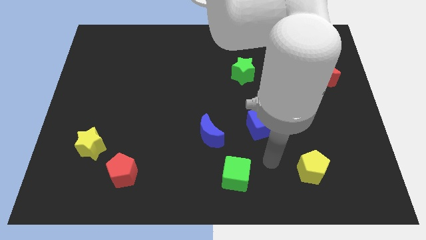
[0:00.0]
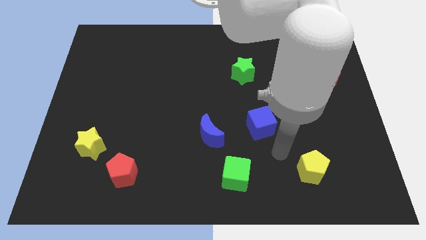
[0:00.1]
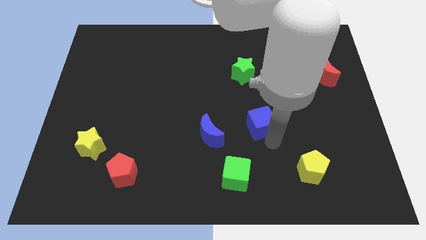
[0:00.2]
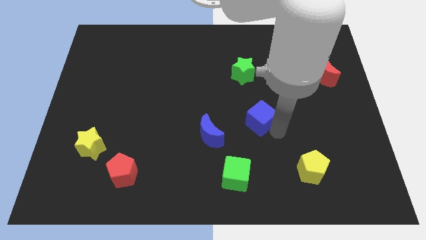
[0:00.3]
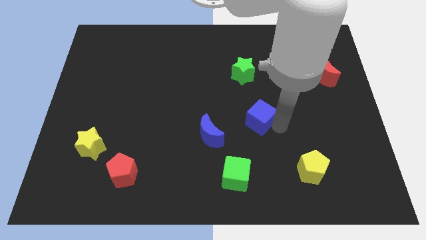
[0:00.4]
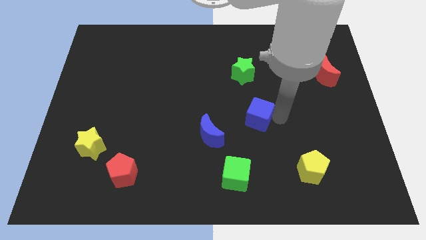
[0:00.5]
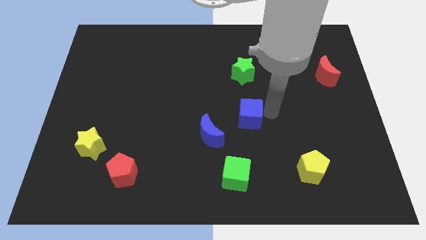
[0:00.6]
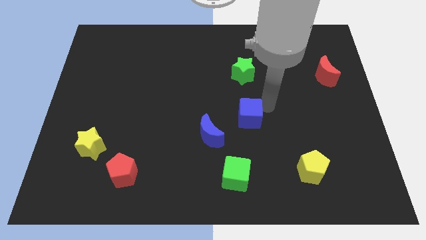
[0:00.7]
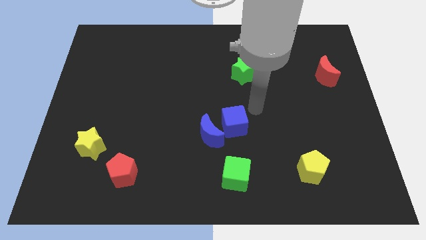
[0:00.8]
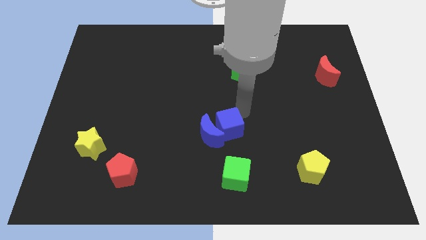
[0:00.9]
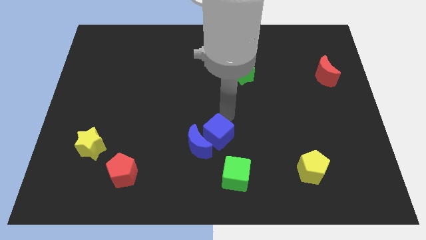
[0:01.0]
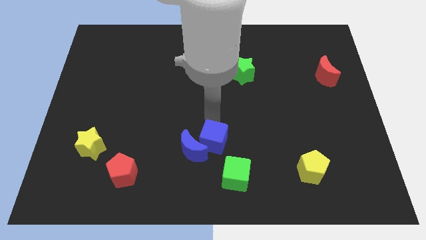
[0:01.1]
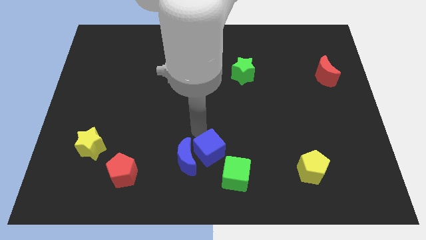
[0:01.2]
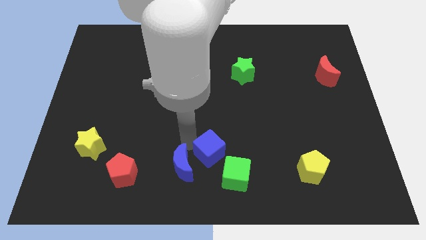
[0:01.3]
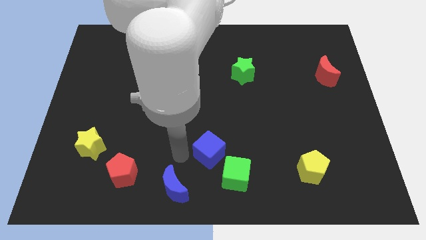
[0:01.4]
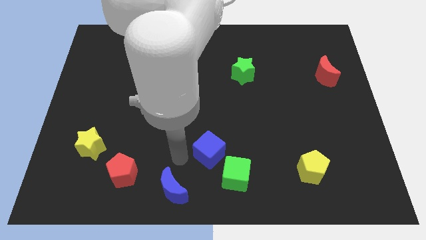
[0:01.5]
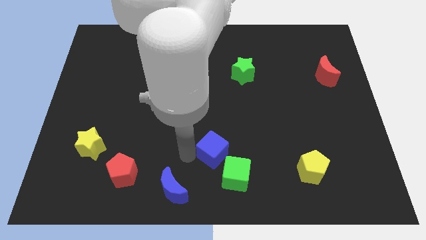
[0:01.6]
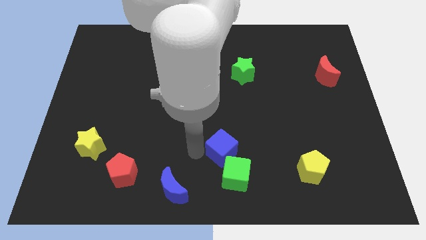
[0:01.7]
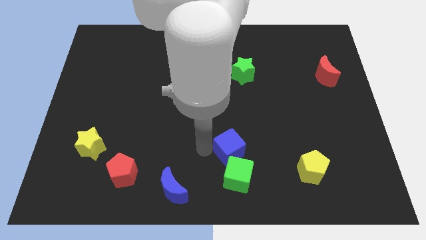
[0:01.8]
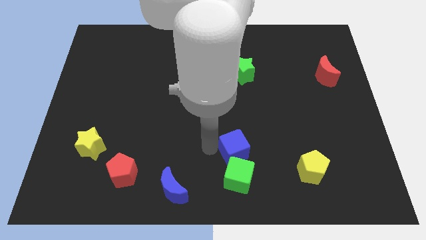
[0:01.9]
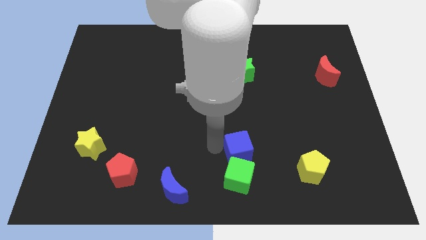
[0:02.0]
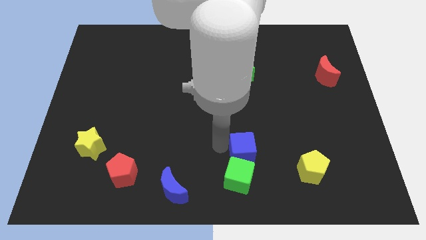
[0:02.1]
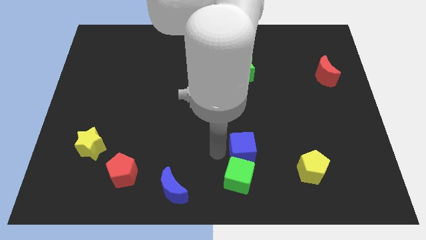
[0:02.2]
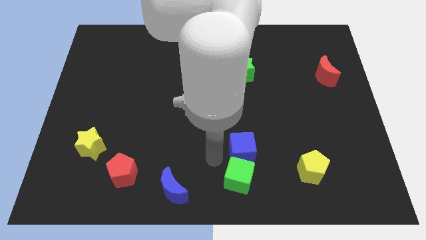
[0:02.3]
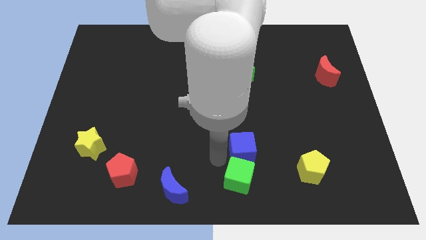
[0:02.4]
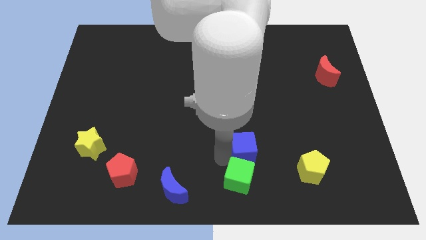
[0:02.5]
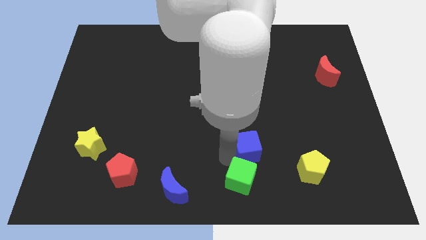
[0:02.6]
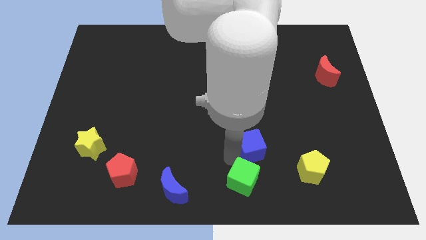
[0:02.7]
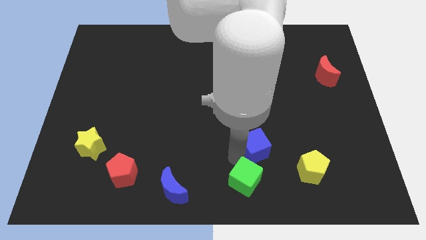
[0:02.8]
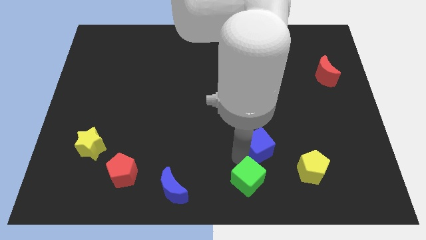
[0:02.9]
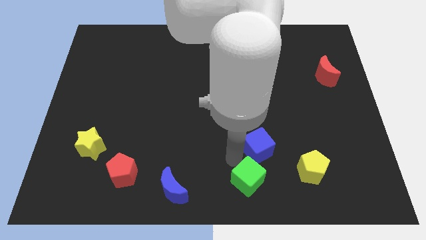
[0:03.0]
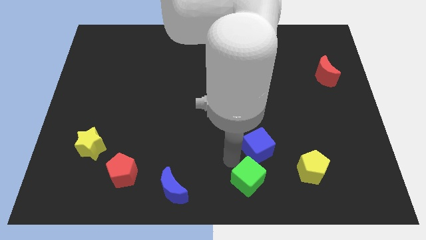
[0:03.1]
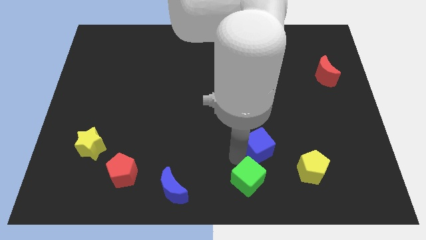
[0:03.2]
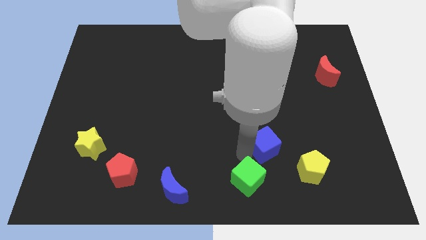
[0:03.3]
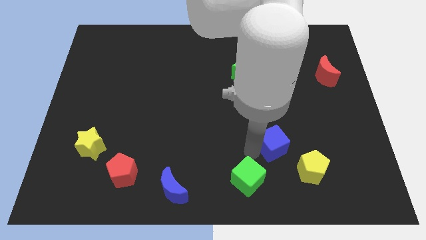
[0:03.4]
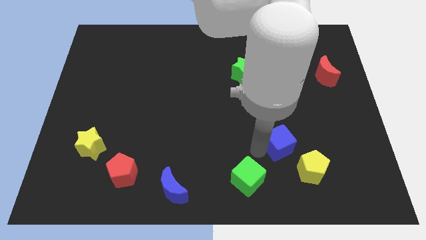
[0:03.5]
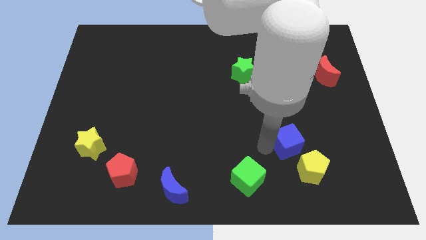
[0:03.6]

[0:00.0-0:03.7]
slide the blue cube somewhat downwards and right diagonally

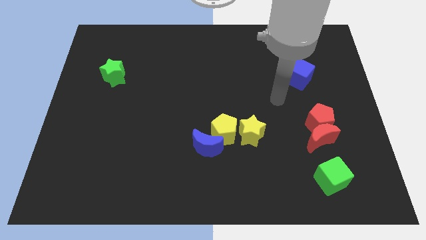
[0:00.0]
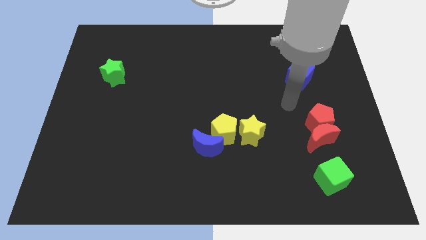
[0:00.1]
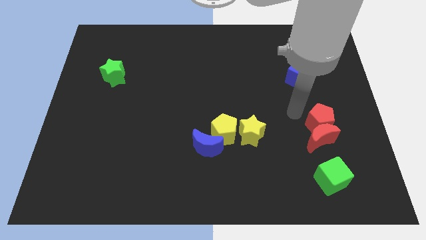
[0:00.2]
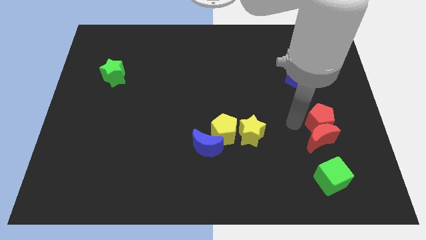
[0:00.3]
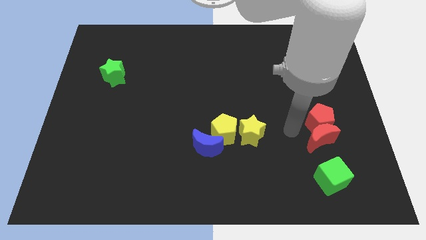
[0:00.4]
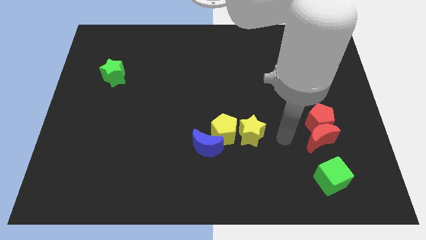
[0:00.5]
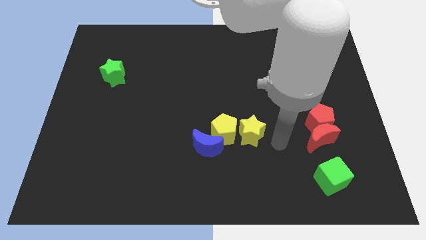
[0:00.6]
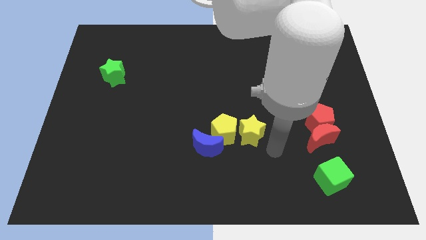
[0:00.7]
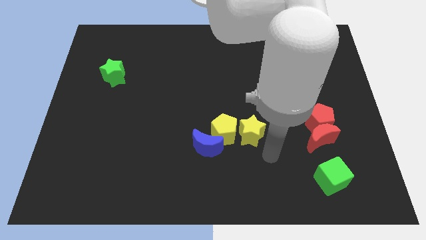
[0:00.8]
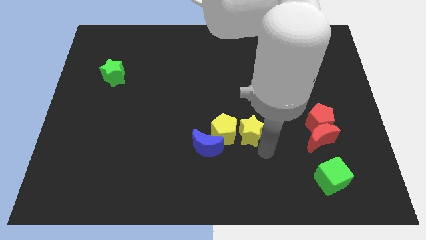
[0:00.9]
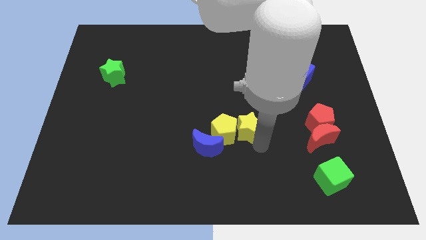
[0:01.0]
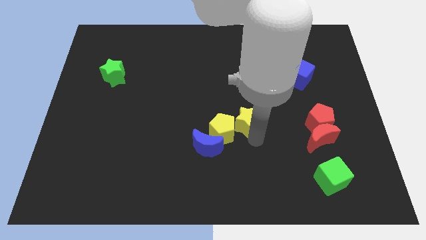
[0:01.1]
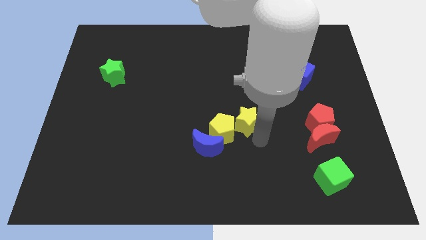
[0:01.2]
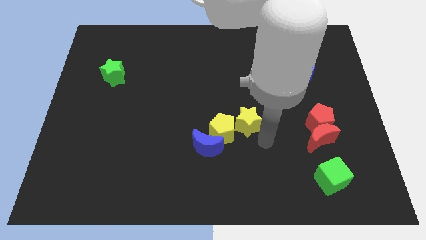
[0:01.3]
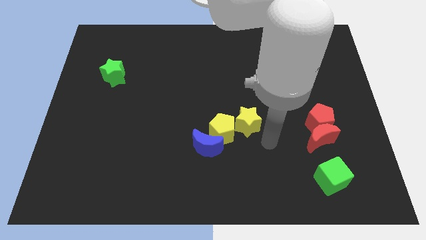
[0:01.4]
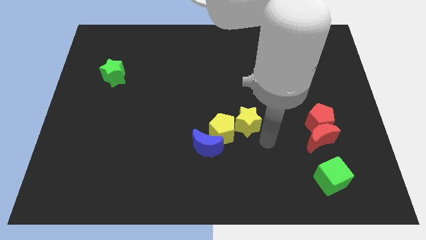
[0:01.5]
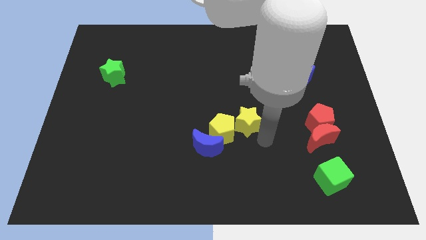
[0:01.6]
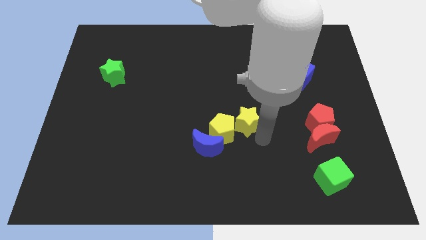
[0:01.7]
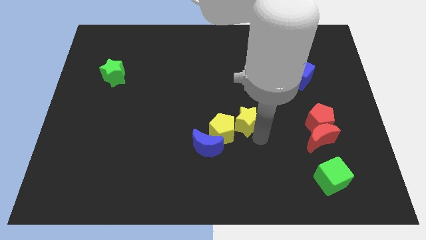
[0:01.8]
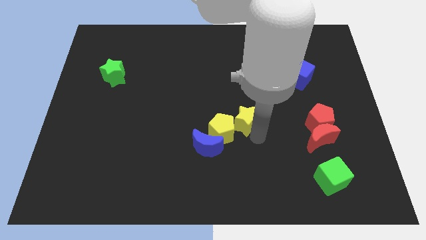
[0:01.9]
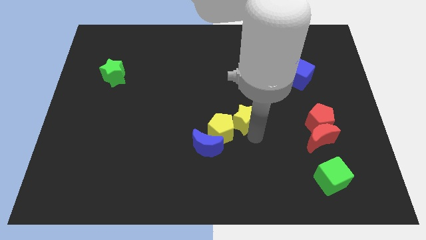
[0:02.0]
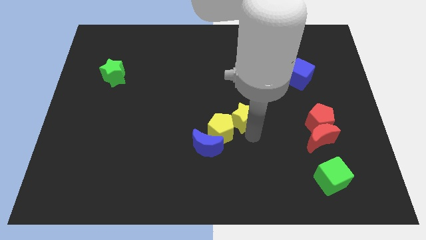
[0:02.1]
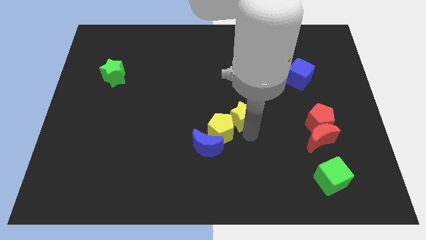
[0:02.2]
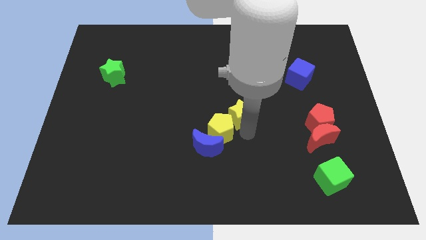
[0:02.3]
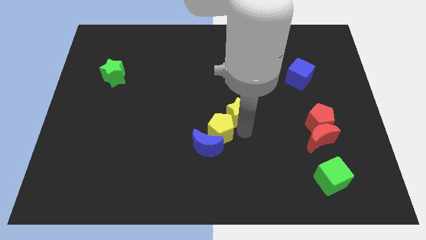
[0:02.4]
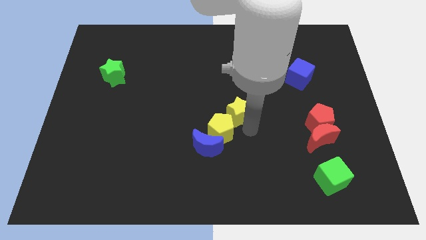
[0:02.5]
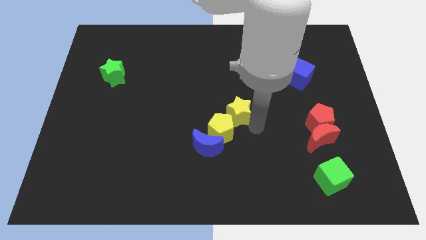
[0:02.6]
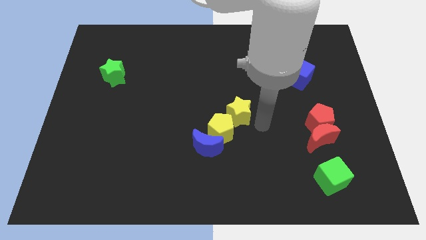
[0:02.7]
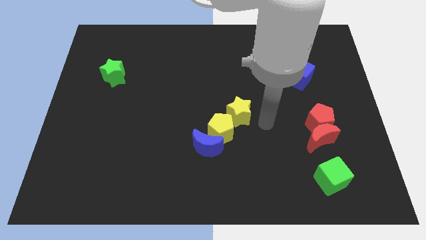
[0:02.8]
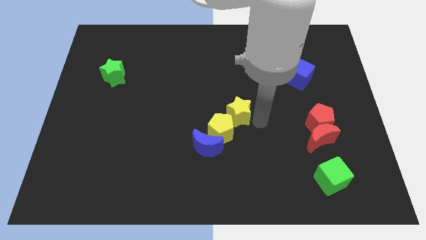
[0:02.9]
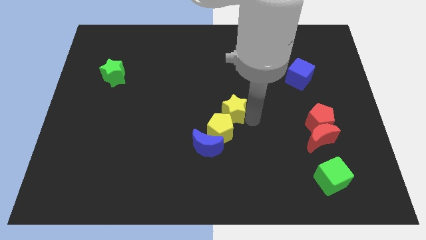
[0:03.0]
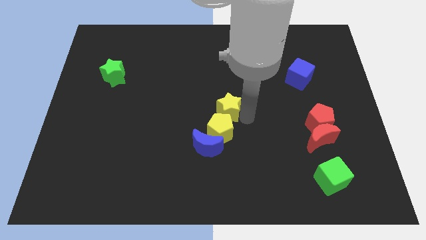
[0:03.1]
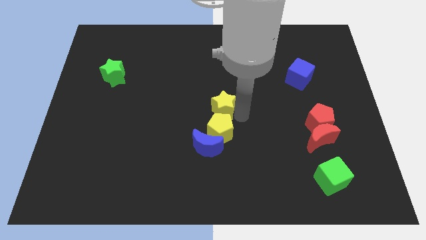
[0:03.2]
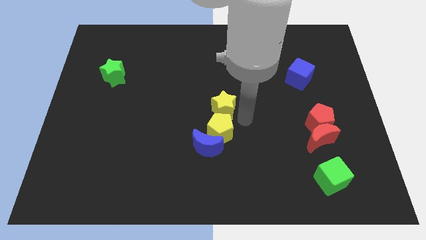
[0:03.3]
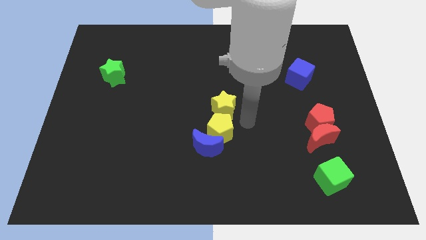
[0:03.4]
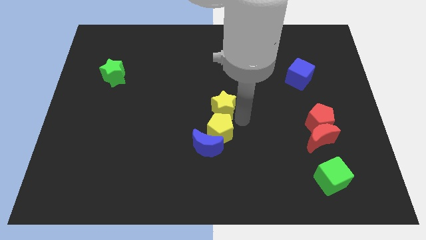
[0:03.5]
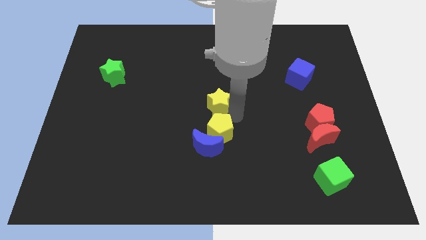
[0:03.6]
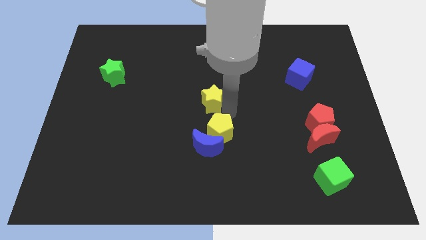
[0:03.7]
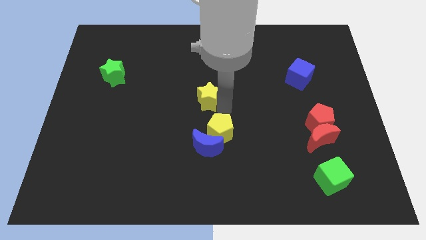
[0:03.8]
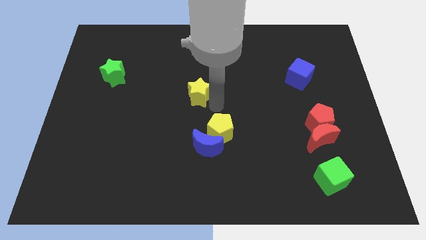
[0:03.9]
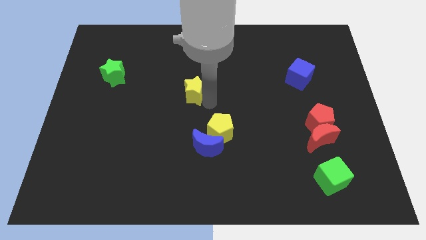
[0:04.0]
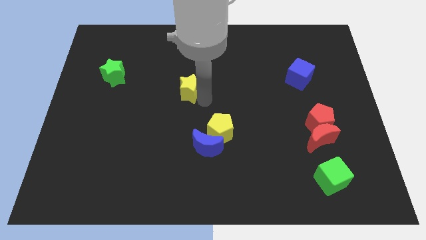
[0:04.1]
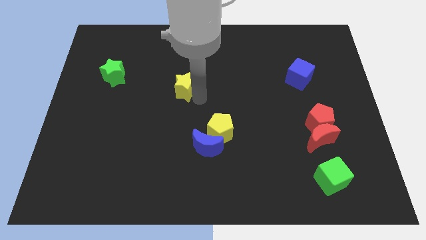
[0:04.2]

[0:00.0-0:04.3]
move the yellow star upwards and left diagonally

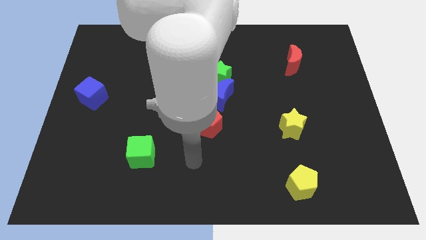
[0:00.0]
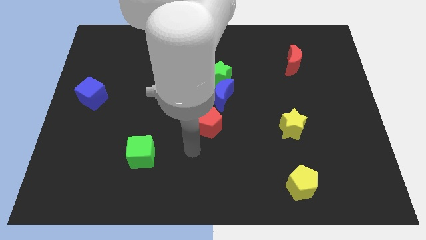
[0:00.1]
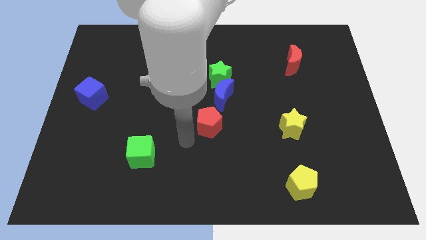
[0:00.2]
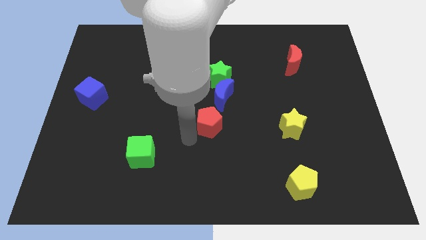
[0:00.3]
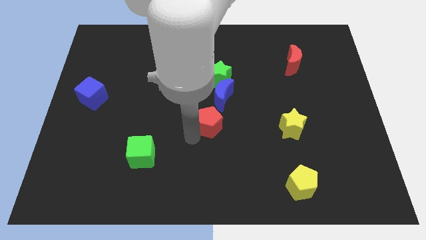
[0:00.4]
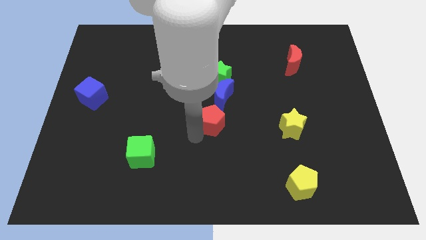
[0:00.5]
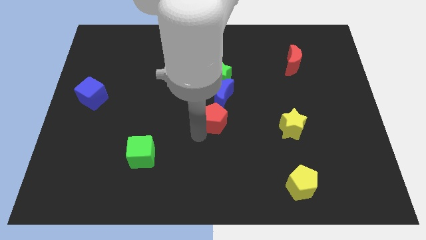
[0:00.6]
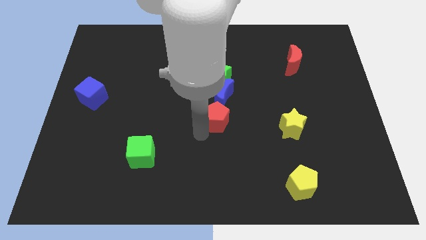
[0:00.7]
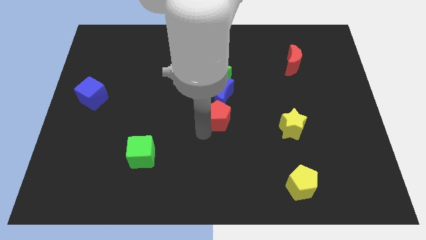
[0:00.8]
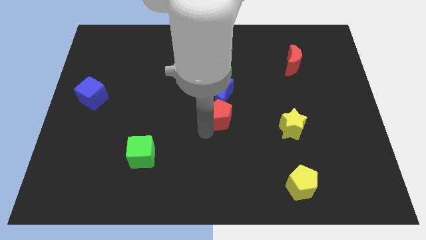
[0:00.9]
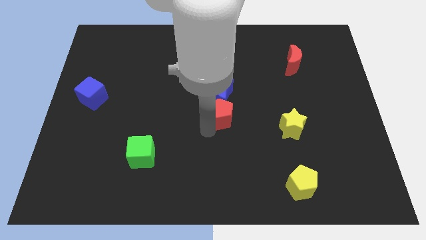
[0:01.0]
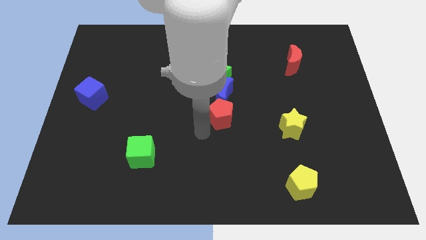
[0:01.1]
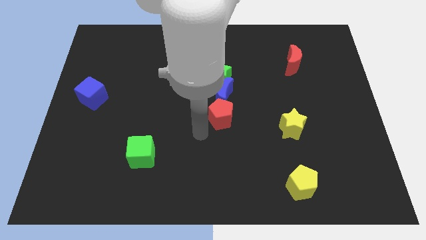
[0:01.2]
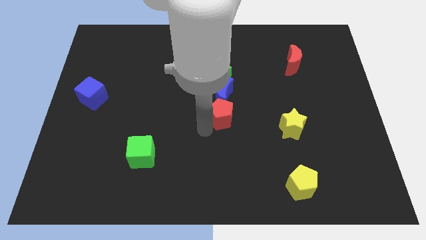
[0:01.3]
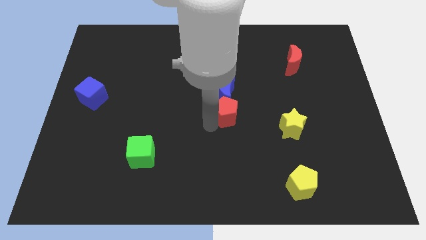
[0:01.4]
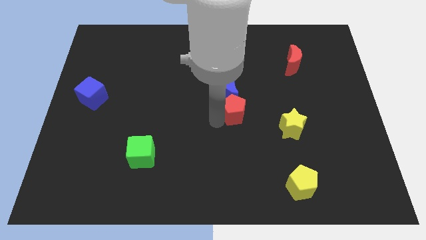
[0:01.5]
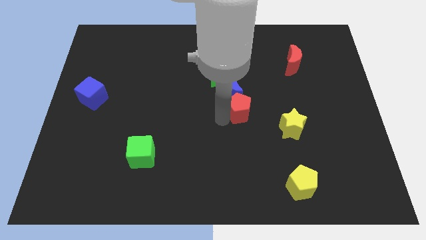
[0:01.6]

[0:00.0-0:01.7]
slightly move the red pentagon up and then to the right
